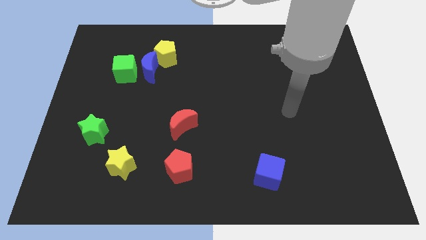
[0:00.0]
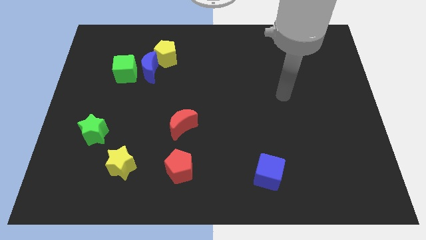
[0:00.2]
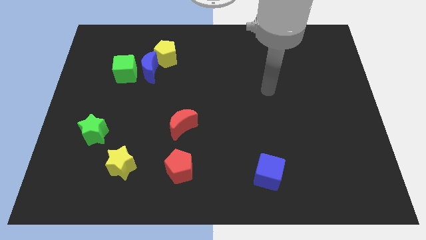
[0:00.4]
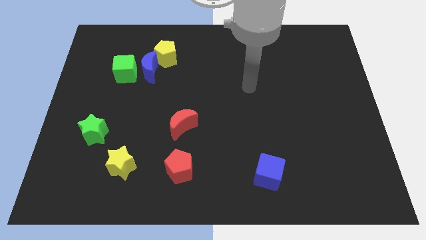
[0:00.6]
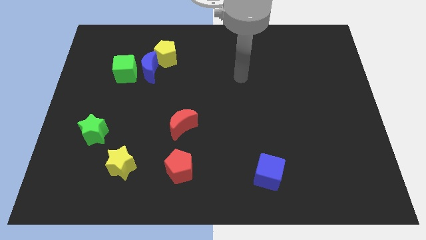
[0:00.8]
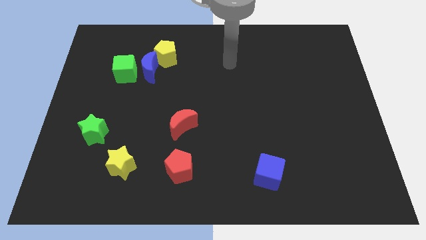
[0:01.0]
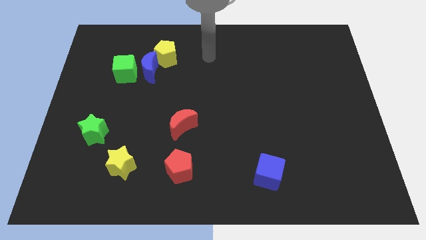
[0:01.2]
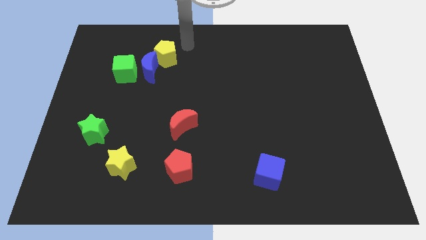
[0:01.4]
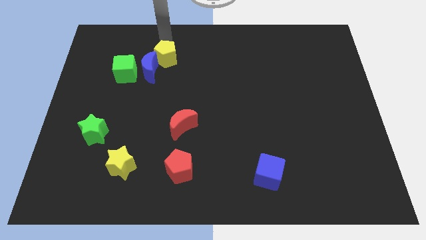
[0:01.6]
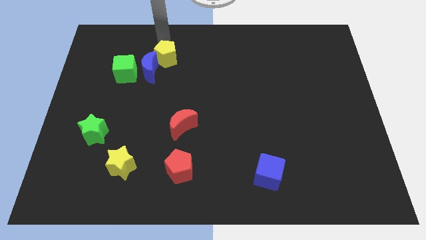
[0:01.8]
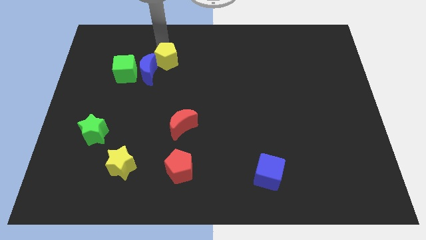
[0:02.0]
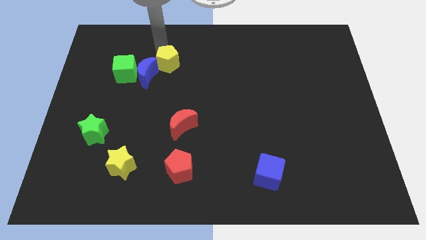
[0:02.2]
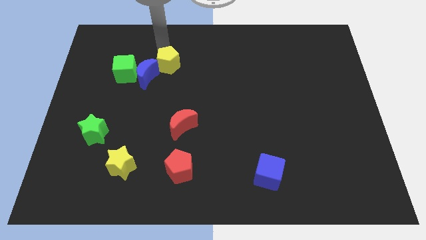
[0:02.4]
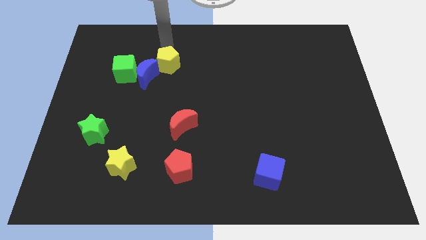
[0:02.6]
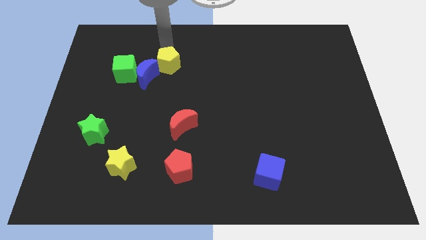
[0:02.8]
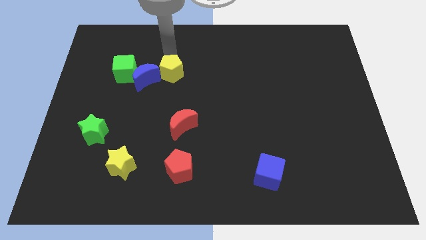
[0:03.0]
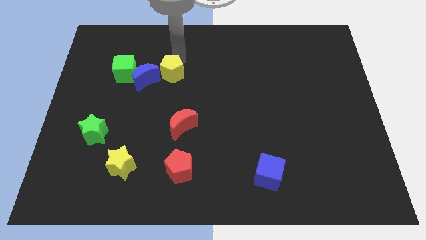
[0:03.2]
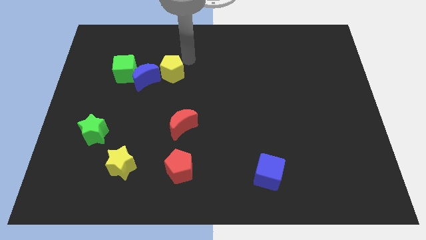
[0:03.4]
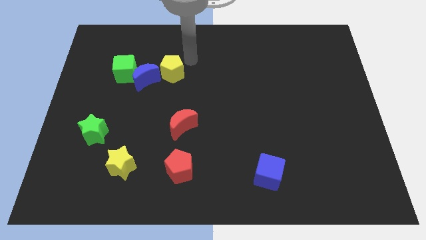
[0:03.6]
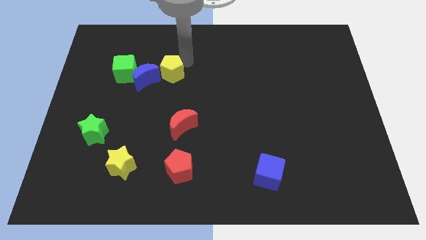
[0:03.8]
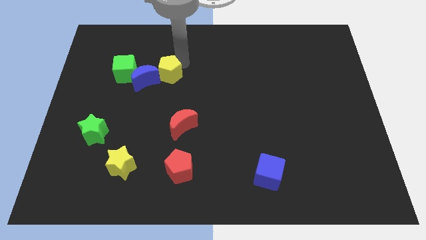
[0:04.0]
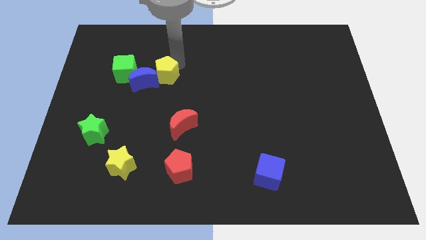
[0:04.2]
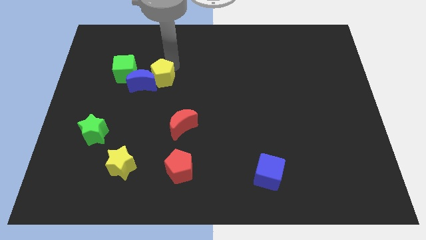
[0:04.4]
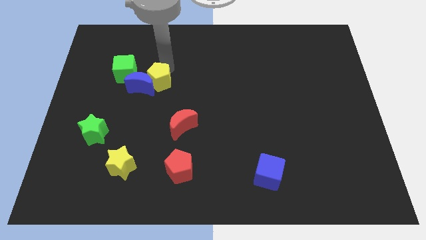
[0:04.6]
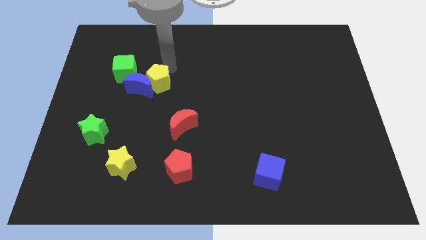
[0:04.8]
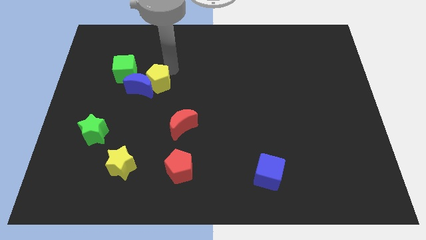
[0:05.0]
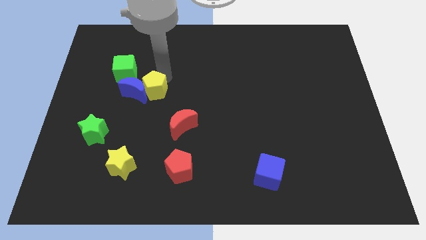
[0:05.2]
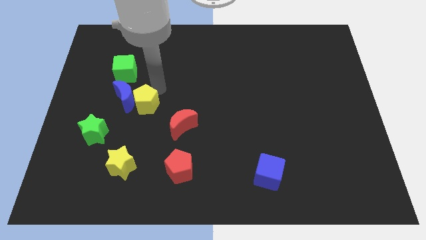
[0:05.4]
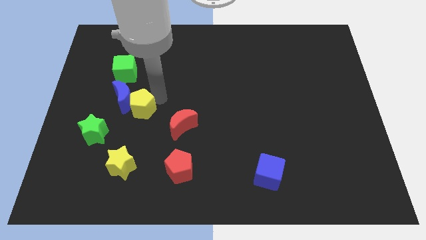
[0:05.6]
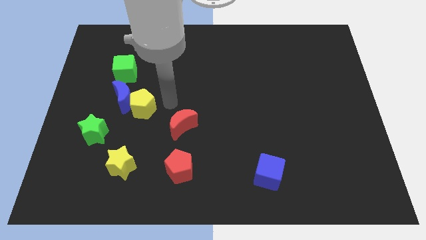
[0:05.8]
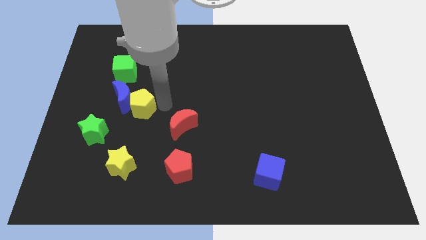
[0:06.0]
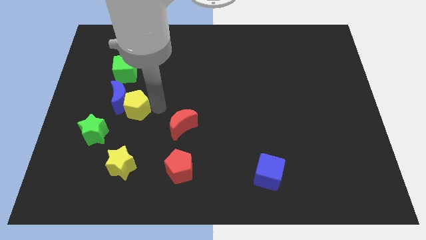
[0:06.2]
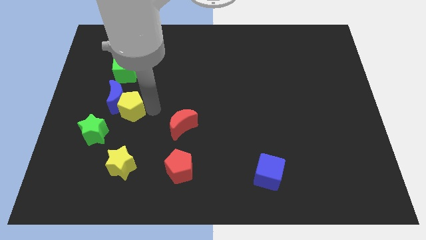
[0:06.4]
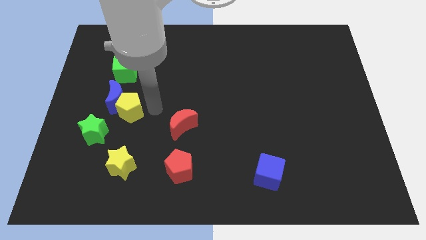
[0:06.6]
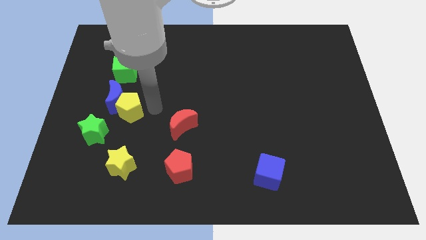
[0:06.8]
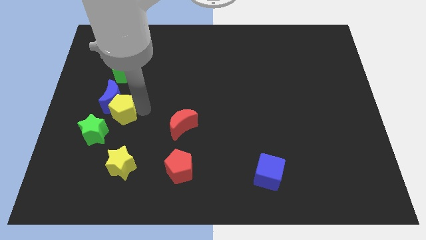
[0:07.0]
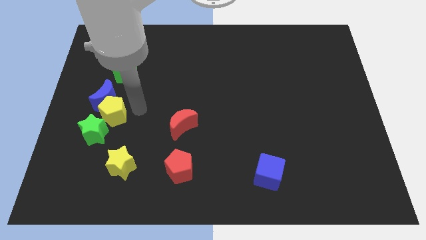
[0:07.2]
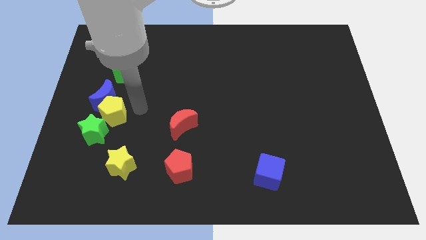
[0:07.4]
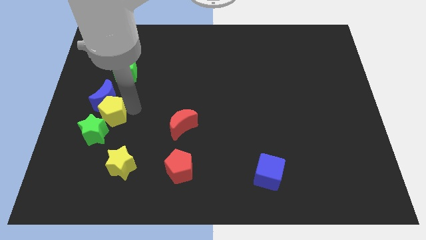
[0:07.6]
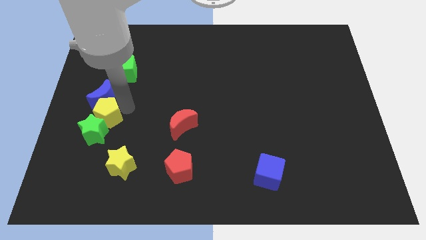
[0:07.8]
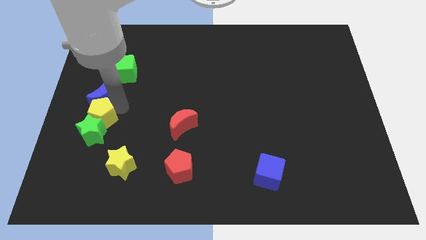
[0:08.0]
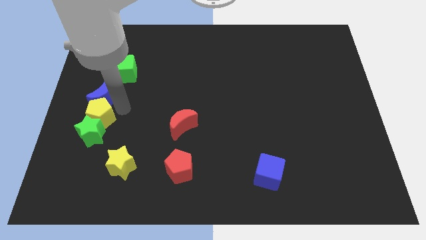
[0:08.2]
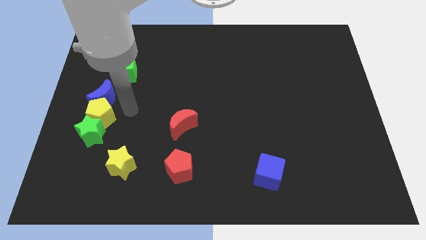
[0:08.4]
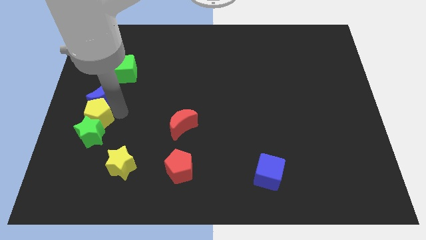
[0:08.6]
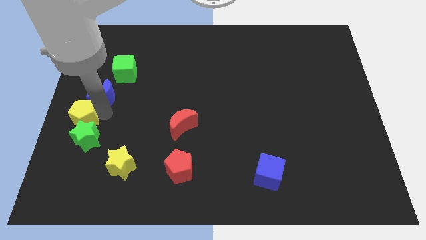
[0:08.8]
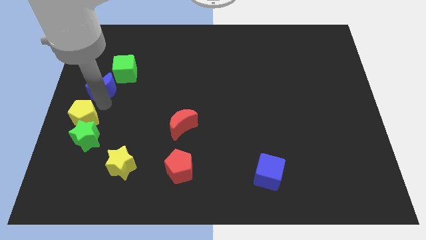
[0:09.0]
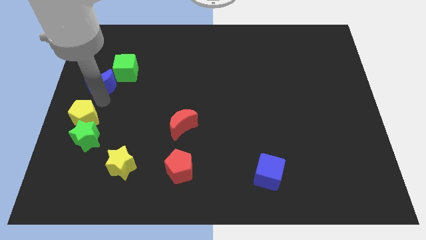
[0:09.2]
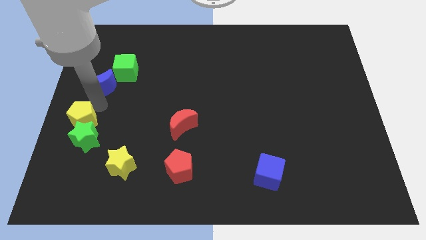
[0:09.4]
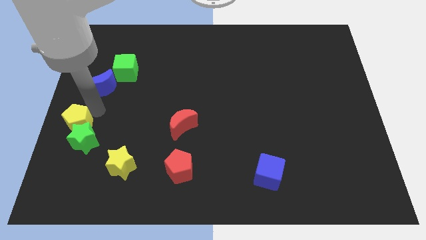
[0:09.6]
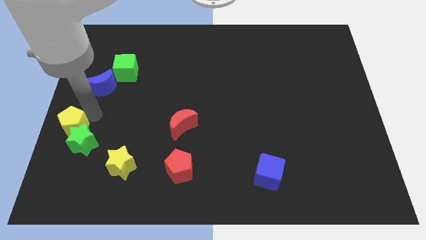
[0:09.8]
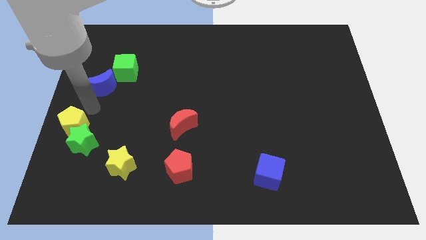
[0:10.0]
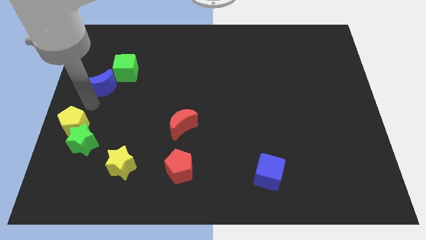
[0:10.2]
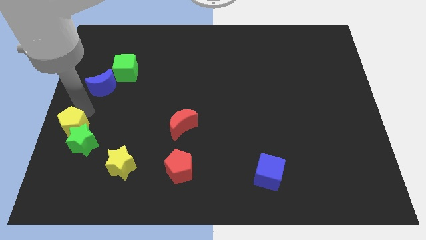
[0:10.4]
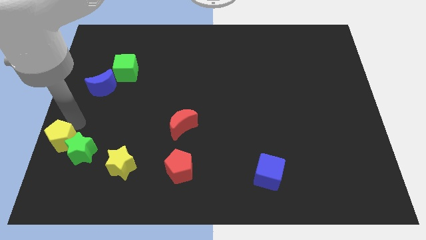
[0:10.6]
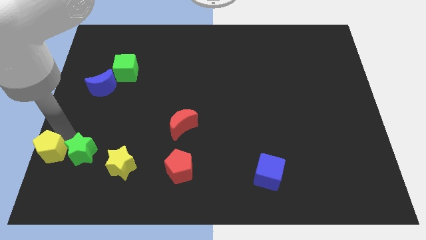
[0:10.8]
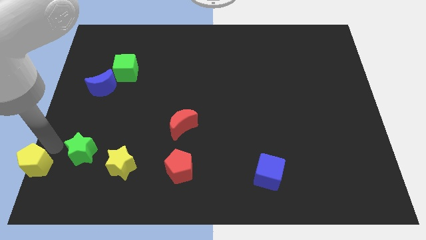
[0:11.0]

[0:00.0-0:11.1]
slide the yellow pentagon to the lower left corner

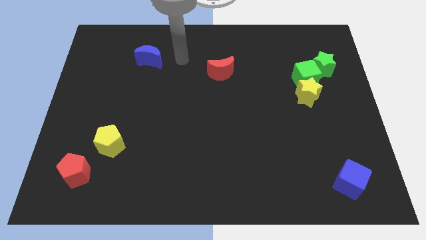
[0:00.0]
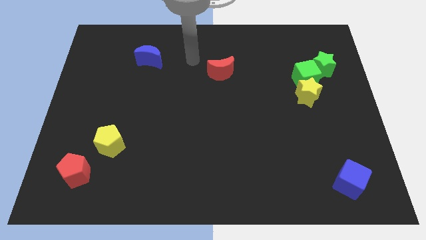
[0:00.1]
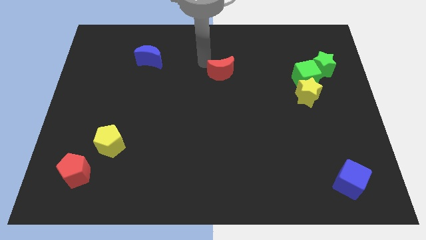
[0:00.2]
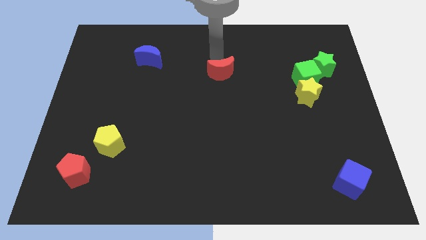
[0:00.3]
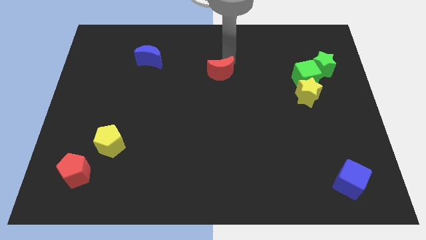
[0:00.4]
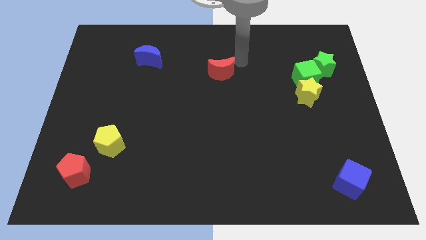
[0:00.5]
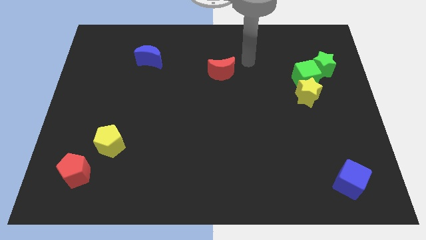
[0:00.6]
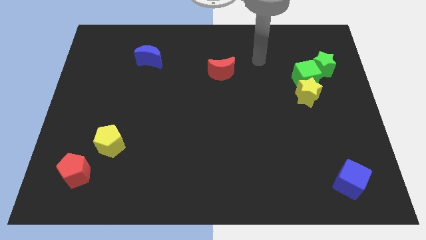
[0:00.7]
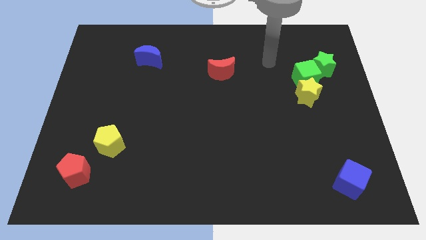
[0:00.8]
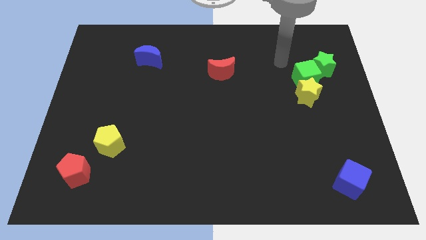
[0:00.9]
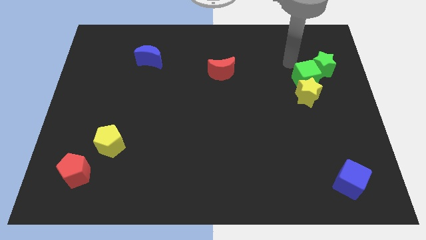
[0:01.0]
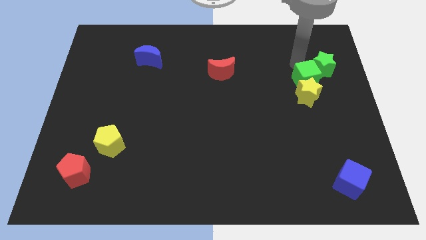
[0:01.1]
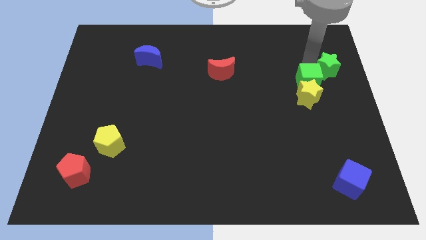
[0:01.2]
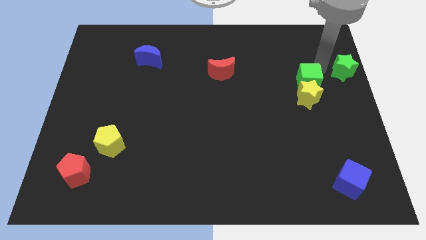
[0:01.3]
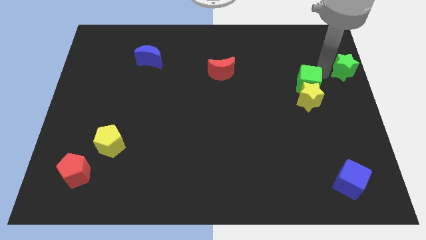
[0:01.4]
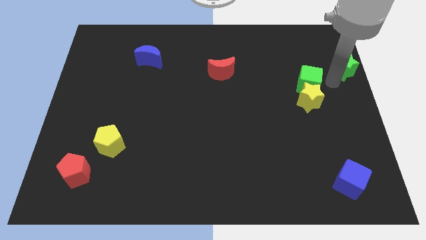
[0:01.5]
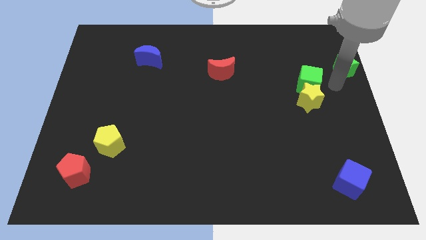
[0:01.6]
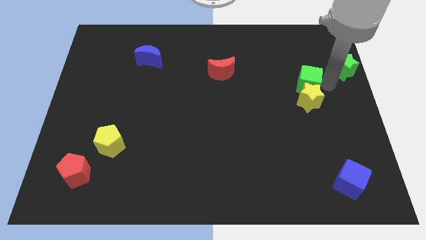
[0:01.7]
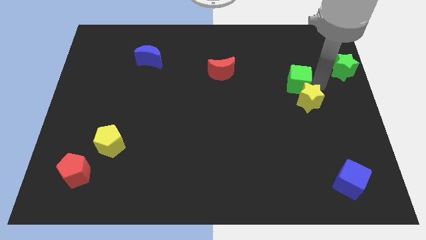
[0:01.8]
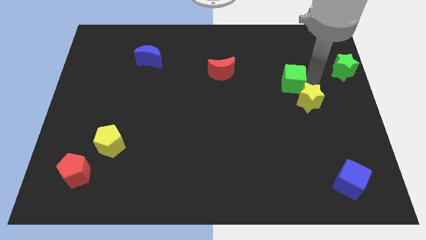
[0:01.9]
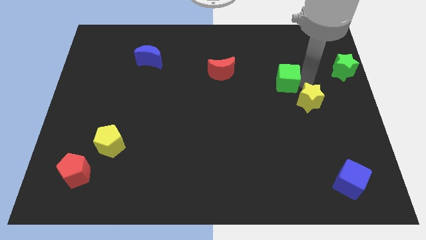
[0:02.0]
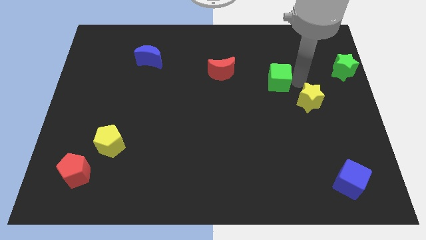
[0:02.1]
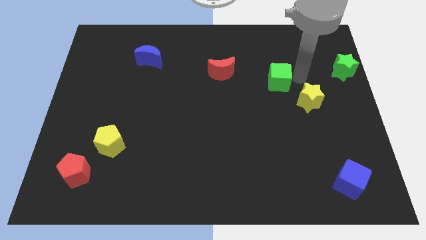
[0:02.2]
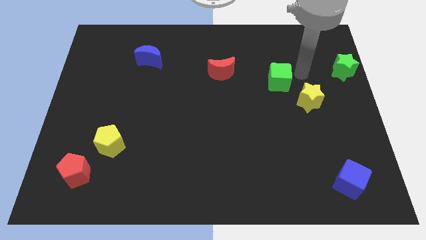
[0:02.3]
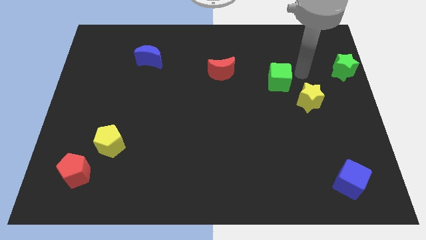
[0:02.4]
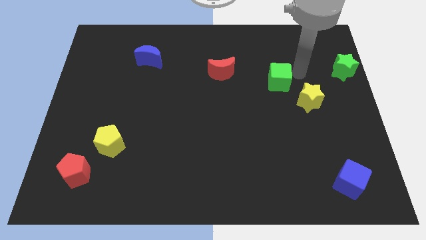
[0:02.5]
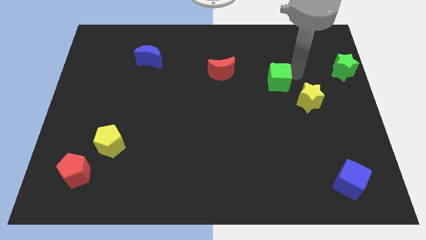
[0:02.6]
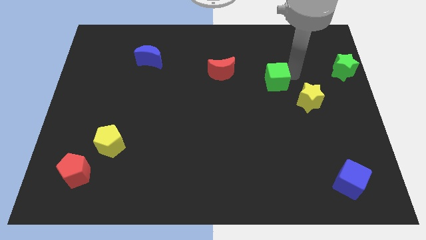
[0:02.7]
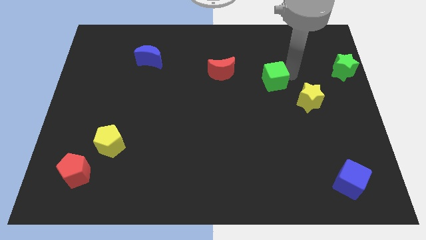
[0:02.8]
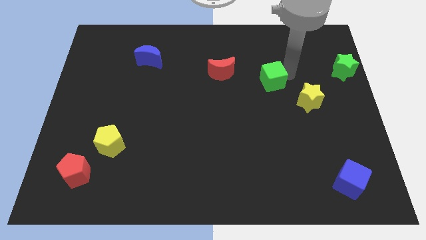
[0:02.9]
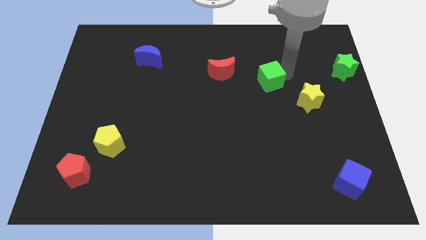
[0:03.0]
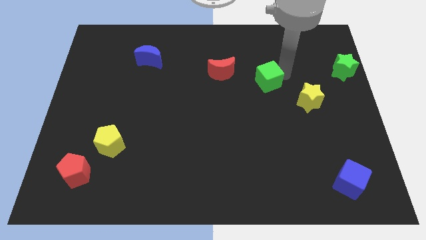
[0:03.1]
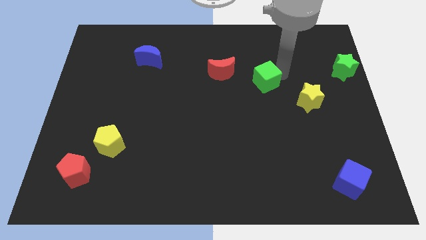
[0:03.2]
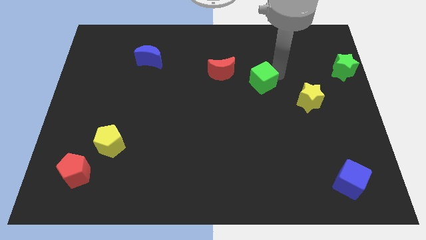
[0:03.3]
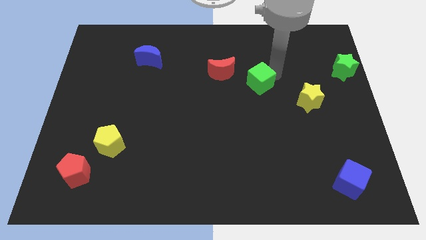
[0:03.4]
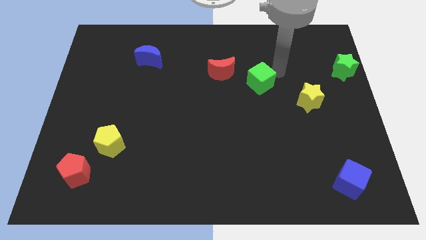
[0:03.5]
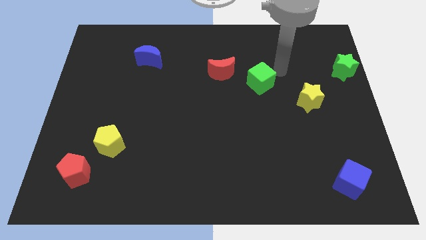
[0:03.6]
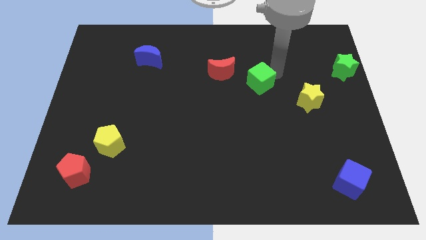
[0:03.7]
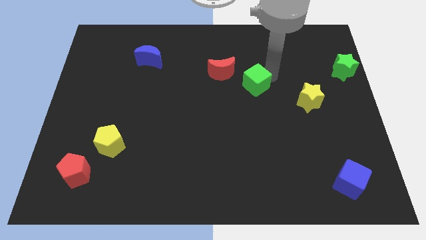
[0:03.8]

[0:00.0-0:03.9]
move the green cube to the center of the board
